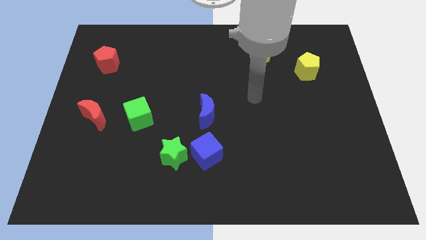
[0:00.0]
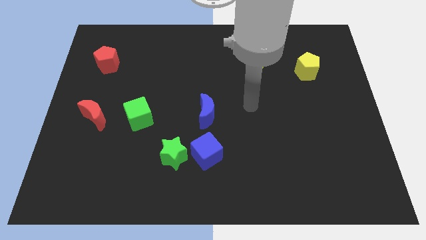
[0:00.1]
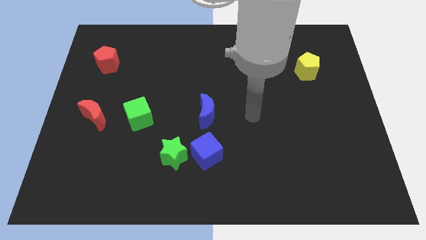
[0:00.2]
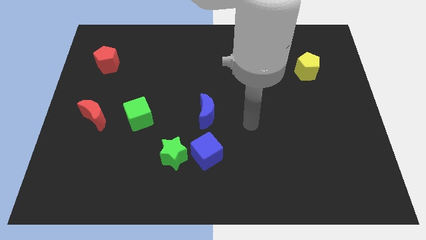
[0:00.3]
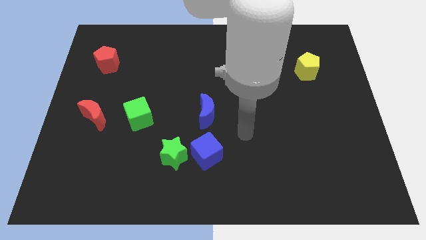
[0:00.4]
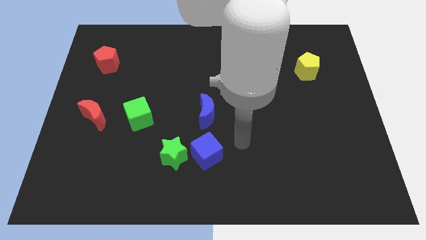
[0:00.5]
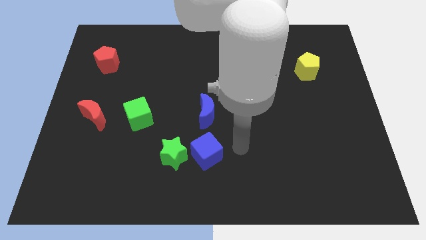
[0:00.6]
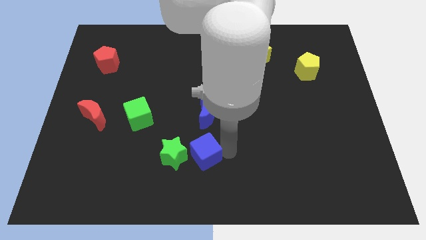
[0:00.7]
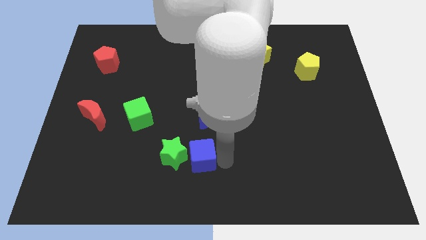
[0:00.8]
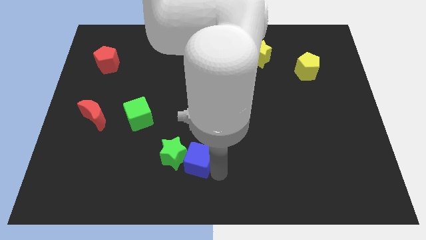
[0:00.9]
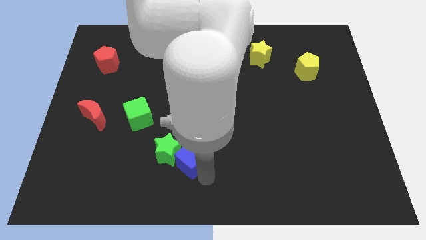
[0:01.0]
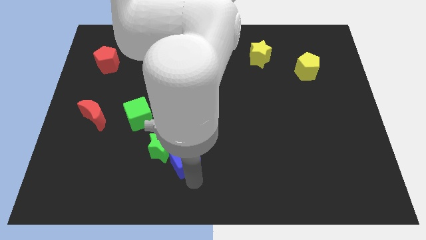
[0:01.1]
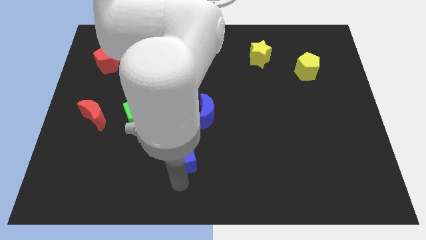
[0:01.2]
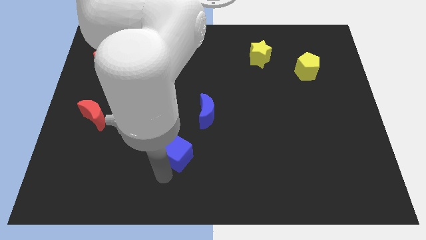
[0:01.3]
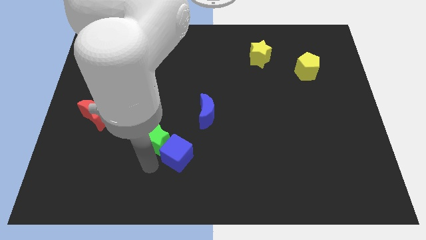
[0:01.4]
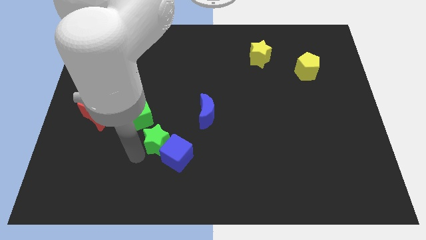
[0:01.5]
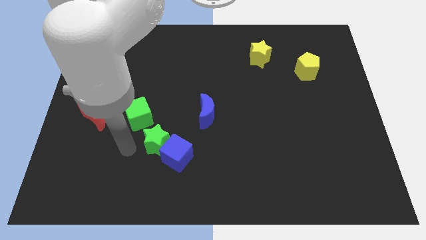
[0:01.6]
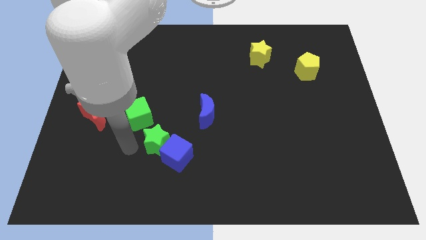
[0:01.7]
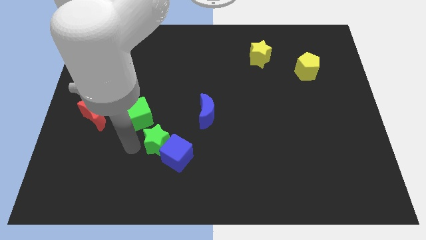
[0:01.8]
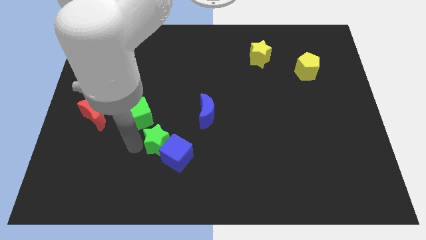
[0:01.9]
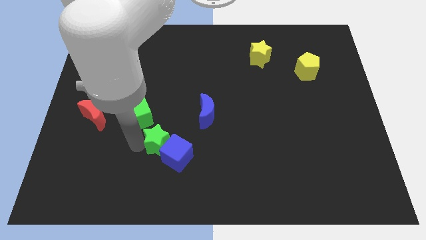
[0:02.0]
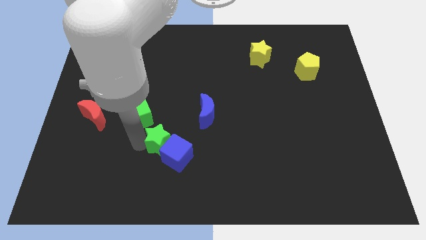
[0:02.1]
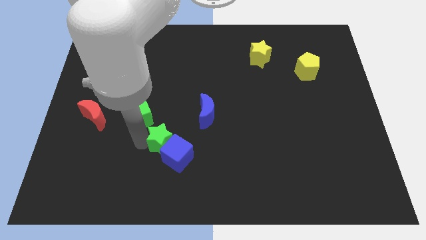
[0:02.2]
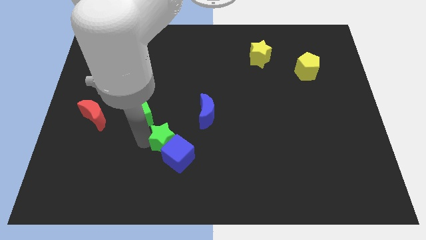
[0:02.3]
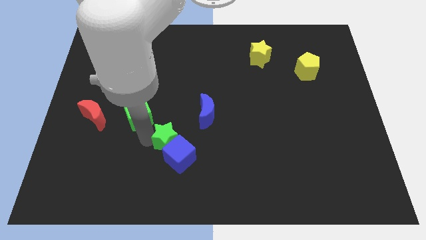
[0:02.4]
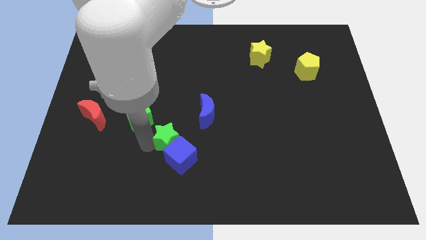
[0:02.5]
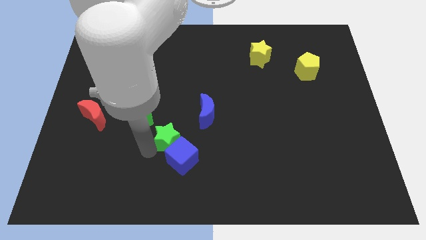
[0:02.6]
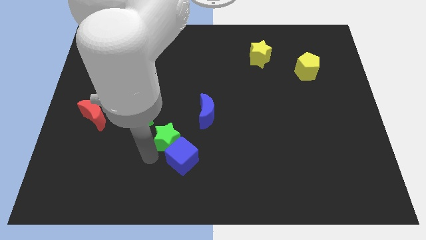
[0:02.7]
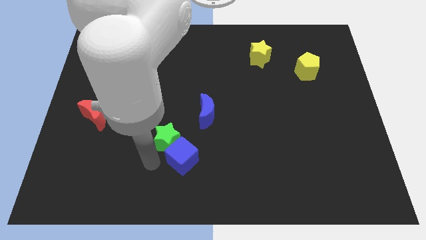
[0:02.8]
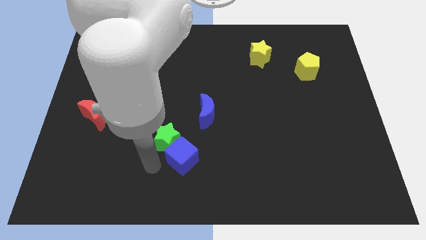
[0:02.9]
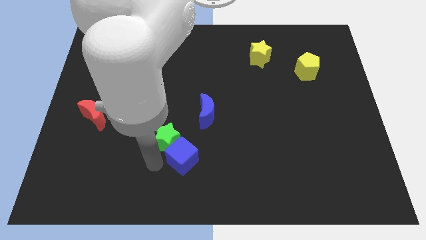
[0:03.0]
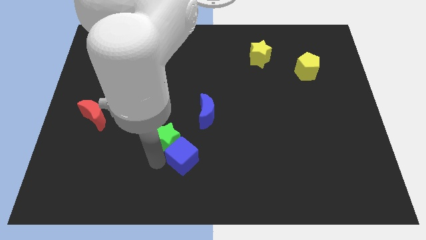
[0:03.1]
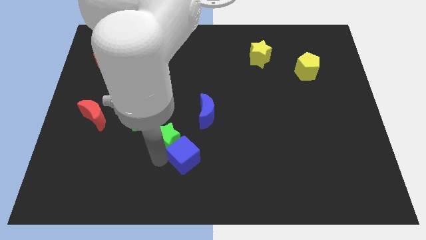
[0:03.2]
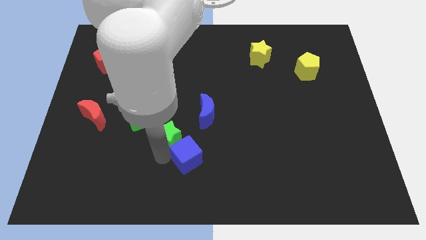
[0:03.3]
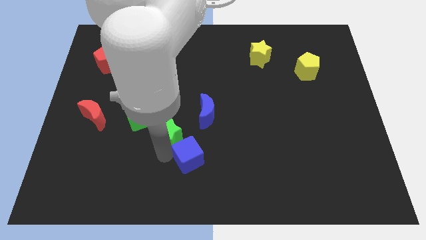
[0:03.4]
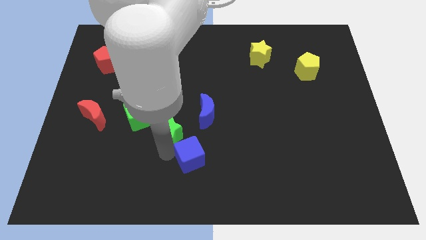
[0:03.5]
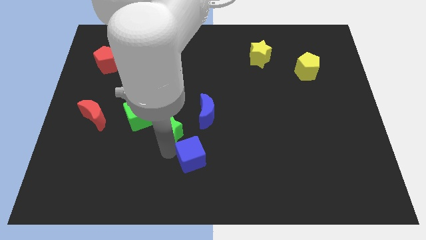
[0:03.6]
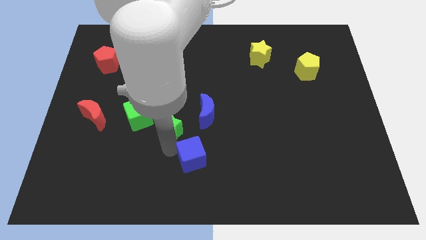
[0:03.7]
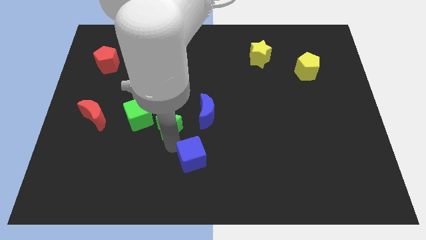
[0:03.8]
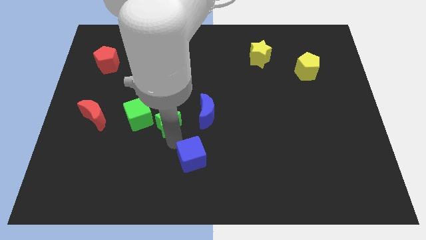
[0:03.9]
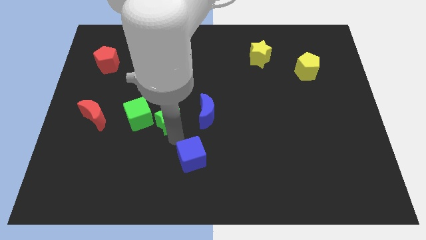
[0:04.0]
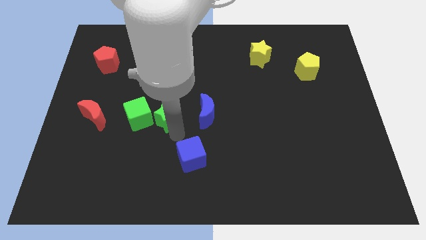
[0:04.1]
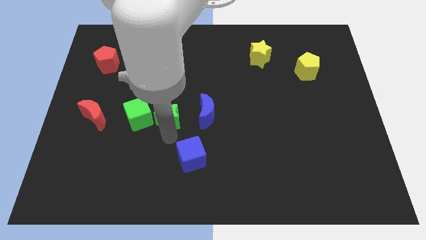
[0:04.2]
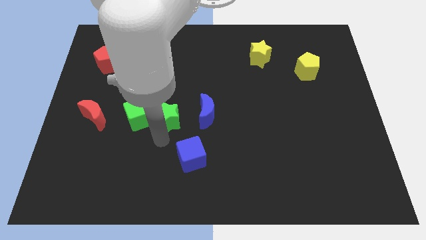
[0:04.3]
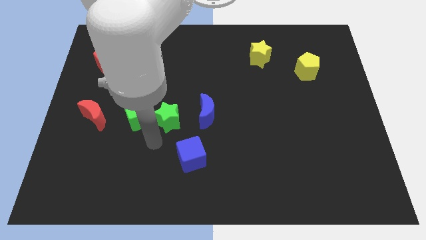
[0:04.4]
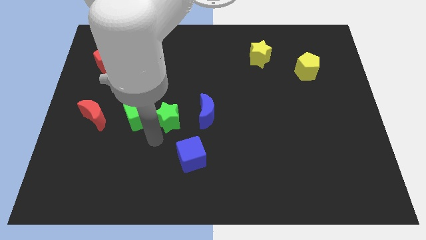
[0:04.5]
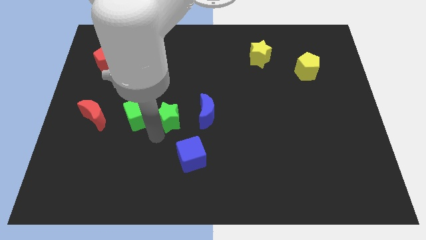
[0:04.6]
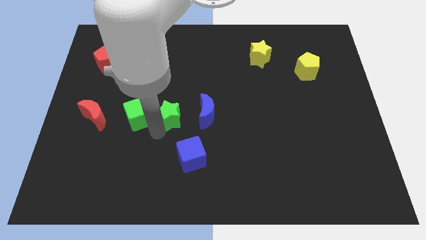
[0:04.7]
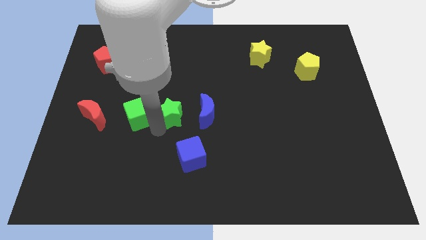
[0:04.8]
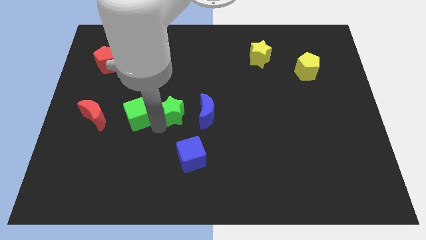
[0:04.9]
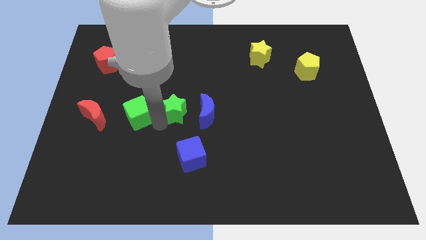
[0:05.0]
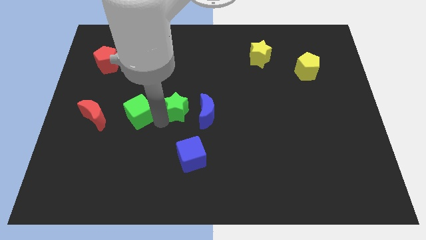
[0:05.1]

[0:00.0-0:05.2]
put the green star to the top left side of the blue moon
